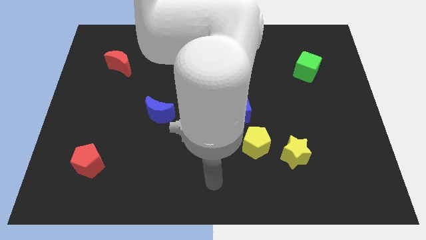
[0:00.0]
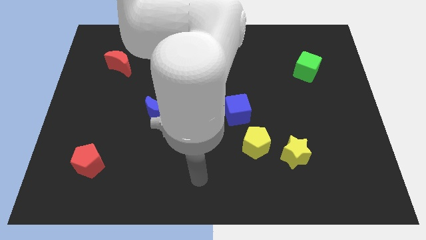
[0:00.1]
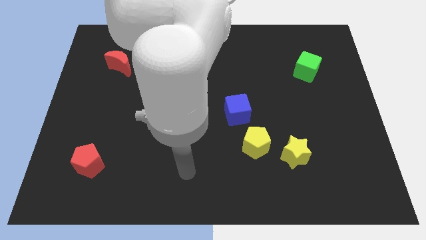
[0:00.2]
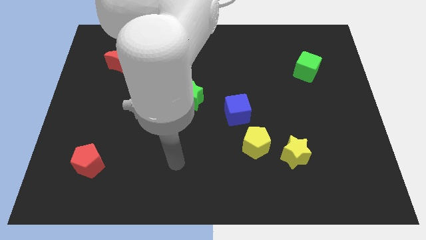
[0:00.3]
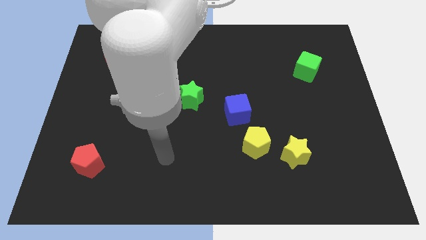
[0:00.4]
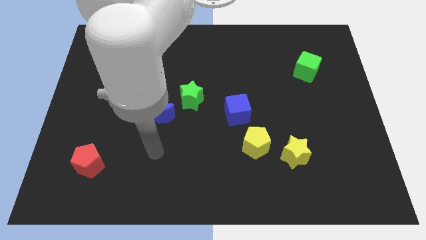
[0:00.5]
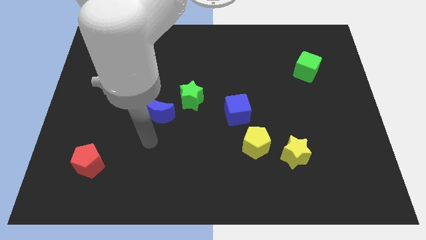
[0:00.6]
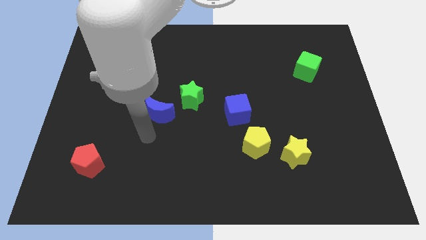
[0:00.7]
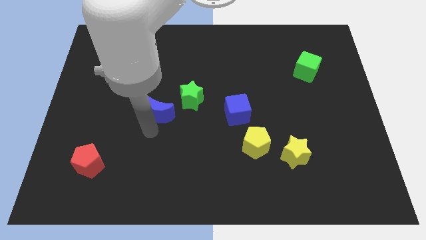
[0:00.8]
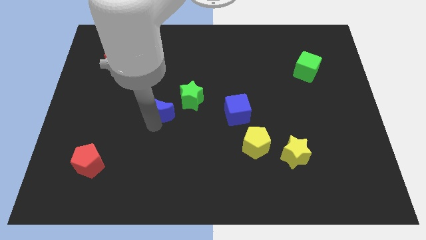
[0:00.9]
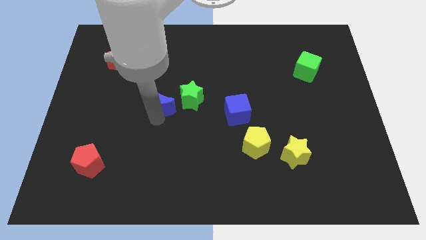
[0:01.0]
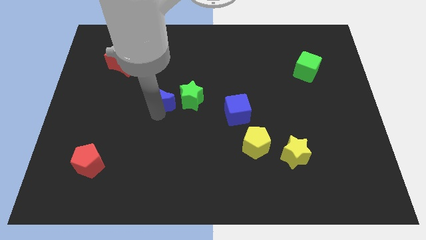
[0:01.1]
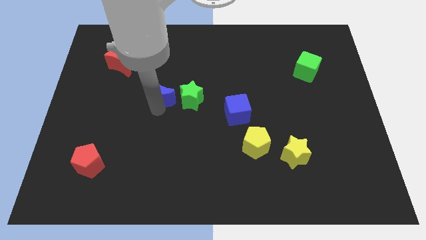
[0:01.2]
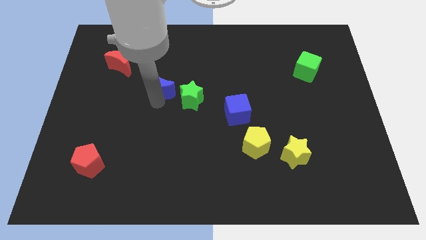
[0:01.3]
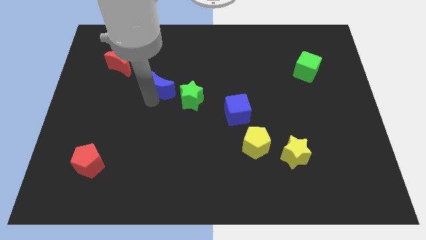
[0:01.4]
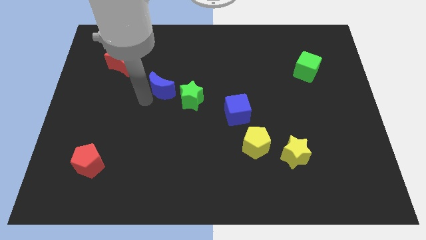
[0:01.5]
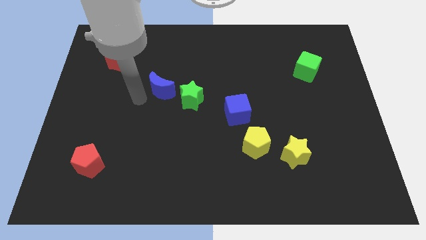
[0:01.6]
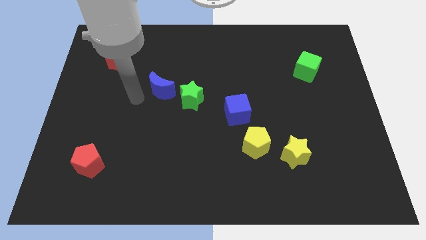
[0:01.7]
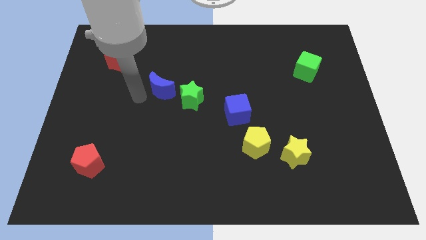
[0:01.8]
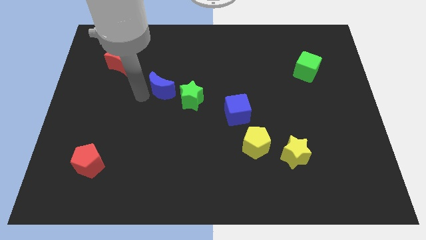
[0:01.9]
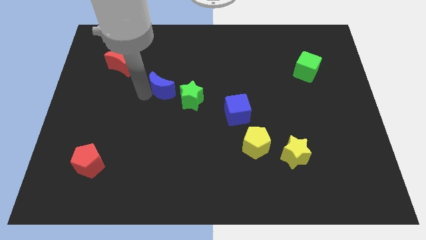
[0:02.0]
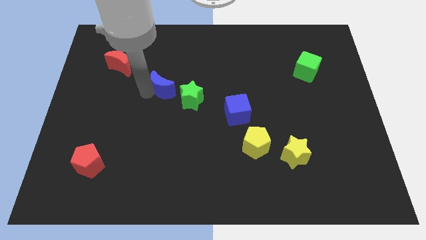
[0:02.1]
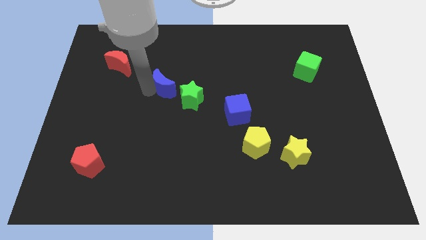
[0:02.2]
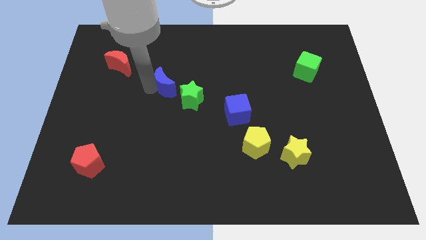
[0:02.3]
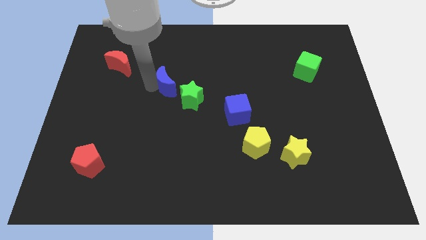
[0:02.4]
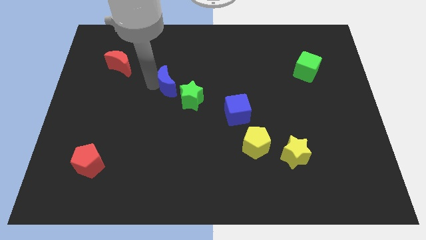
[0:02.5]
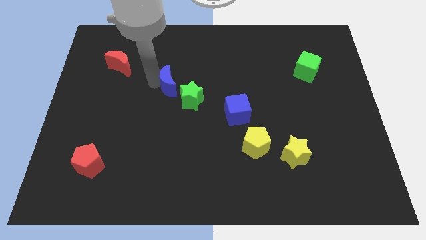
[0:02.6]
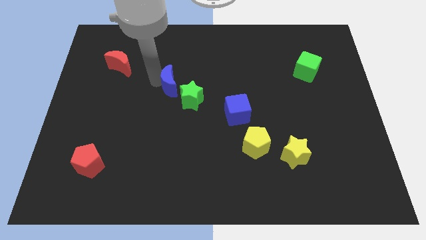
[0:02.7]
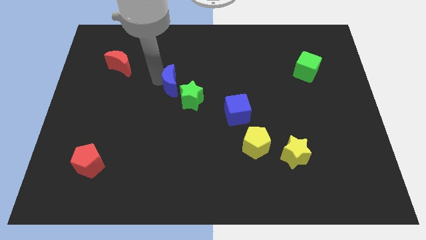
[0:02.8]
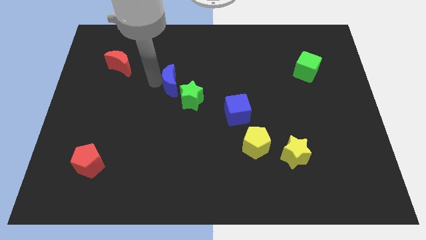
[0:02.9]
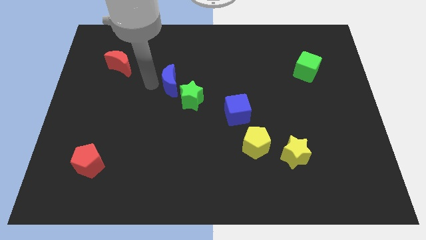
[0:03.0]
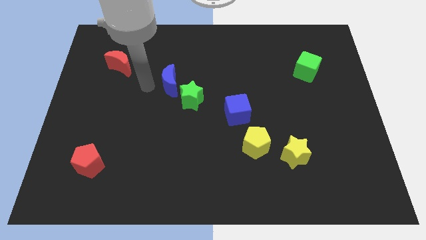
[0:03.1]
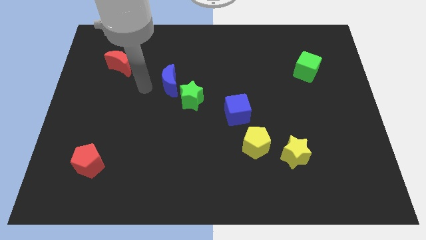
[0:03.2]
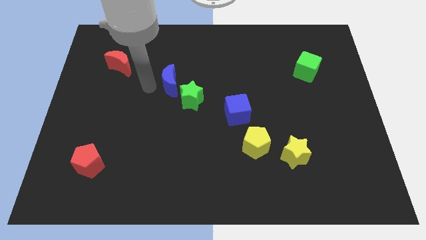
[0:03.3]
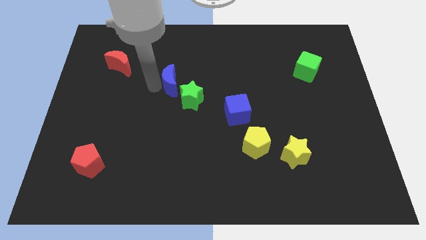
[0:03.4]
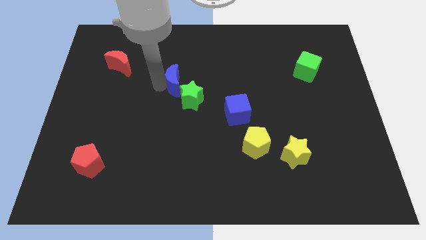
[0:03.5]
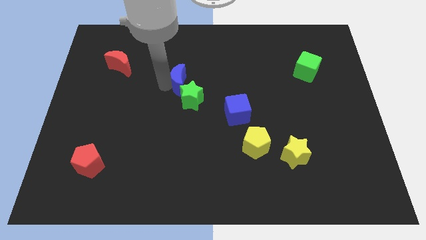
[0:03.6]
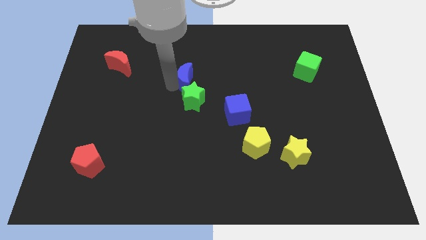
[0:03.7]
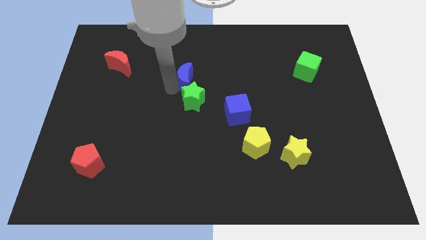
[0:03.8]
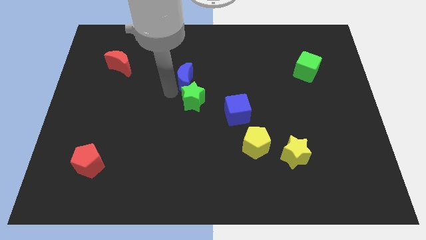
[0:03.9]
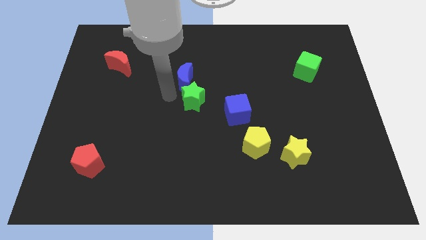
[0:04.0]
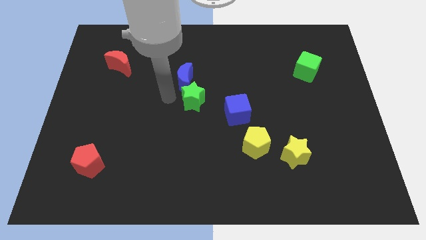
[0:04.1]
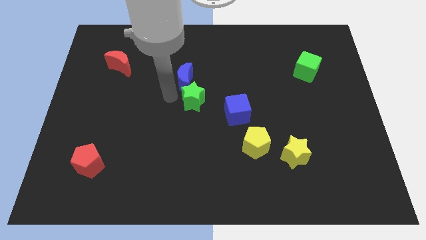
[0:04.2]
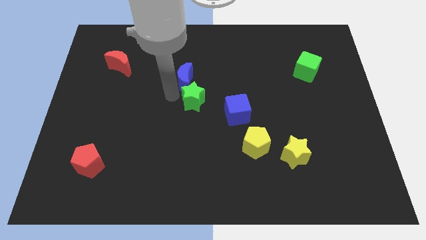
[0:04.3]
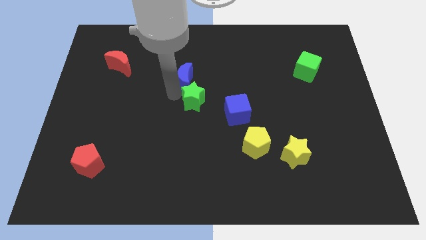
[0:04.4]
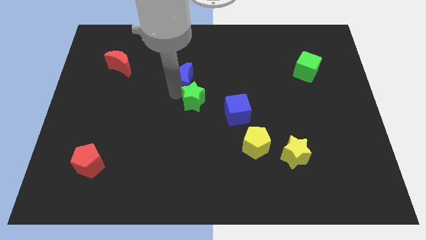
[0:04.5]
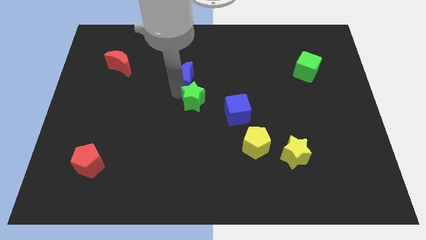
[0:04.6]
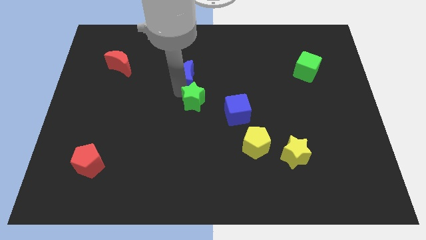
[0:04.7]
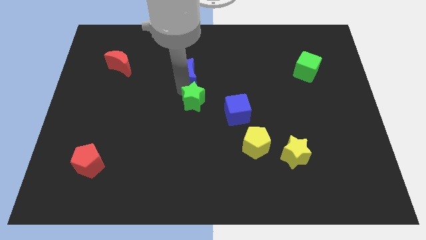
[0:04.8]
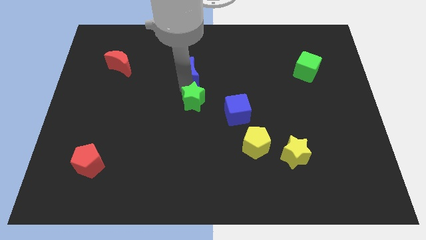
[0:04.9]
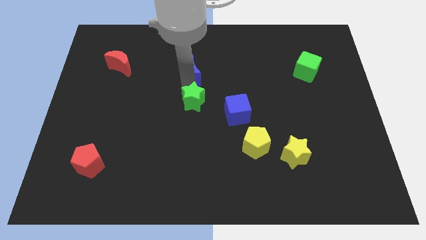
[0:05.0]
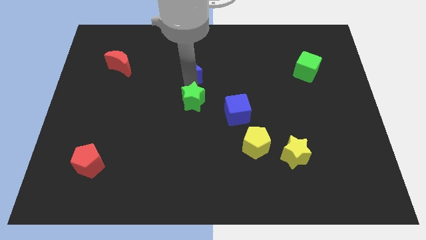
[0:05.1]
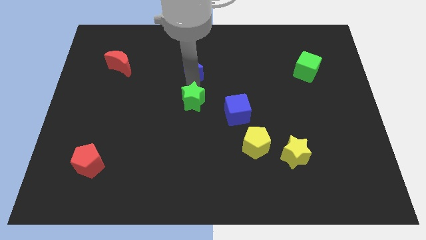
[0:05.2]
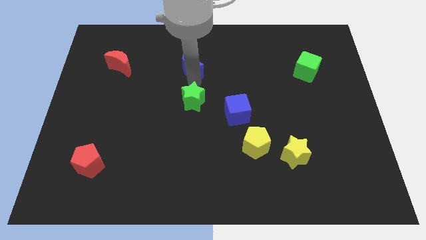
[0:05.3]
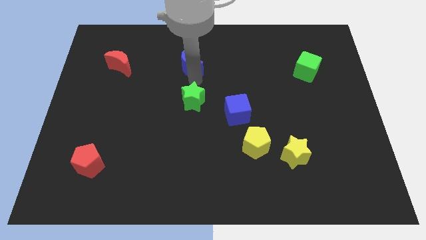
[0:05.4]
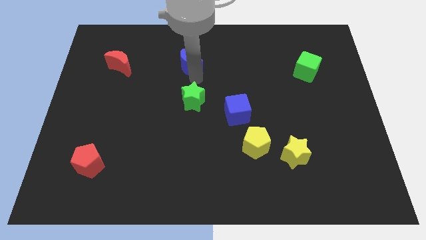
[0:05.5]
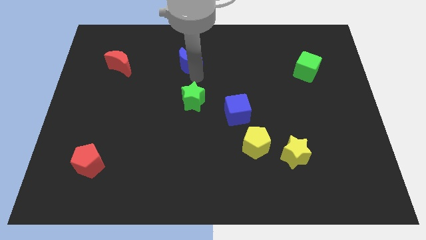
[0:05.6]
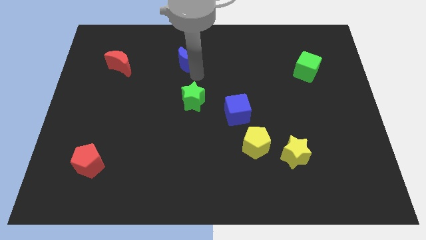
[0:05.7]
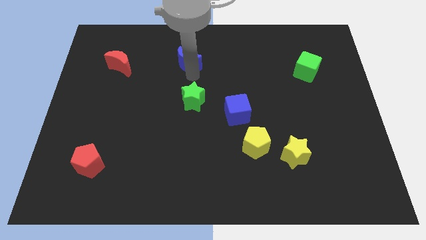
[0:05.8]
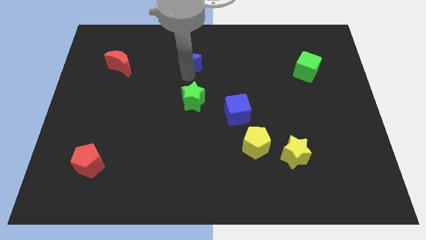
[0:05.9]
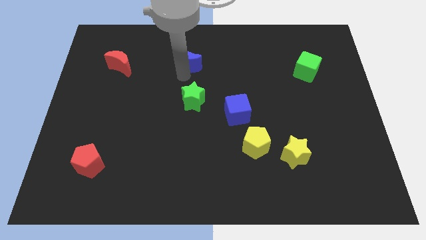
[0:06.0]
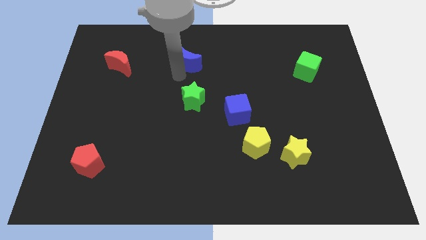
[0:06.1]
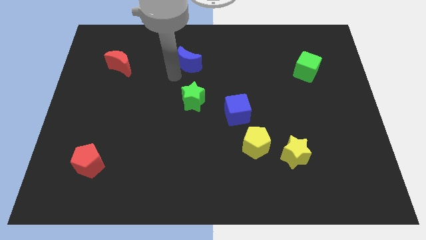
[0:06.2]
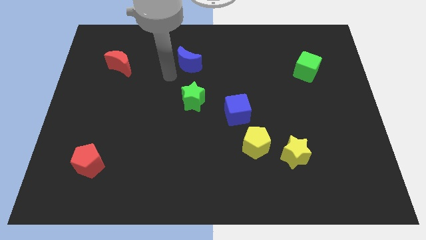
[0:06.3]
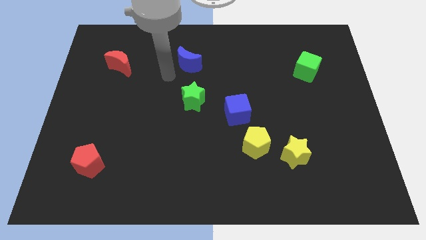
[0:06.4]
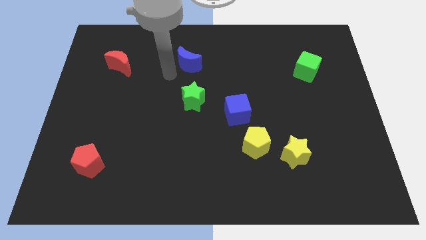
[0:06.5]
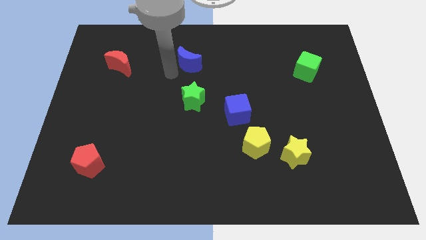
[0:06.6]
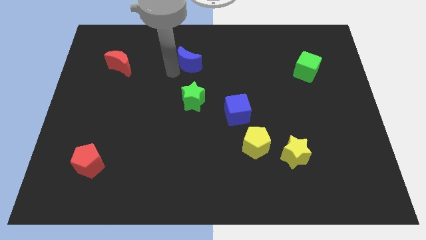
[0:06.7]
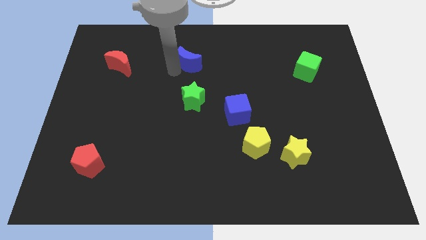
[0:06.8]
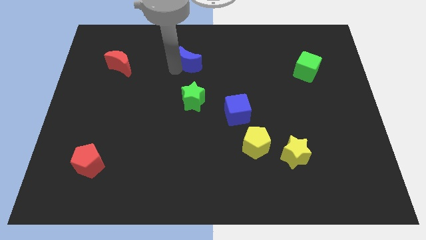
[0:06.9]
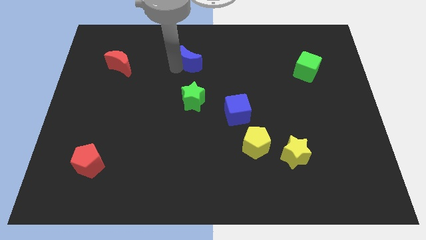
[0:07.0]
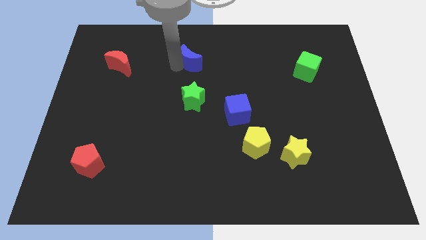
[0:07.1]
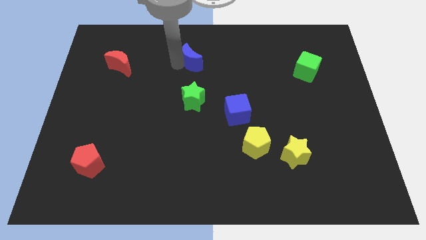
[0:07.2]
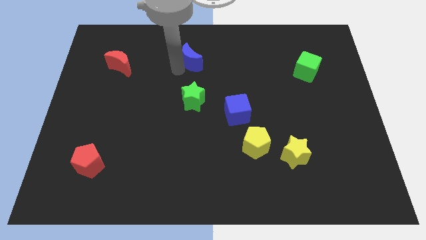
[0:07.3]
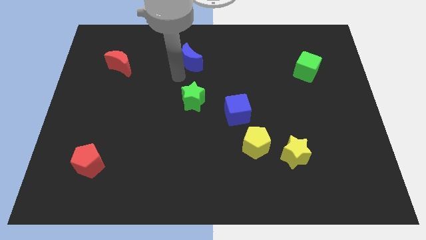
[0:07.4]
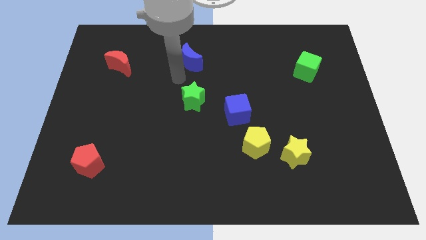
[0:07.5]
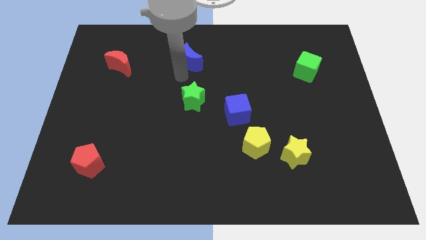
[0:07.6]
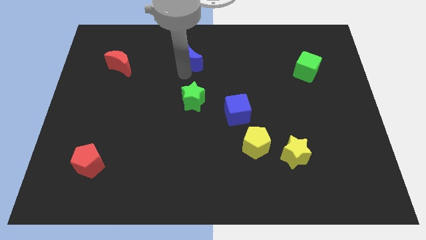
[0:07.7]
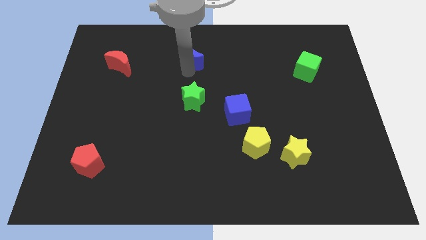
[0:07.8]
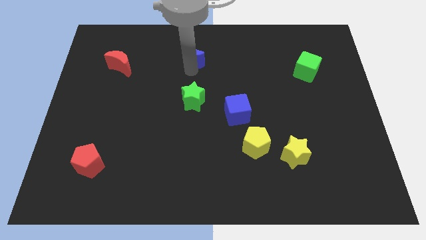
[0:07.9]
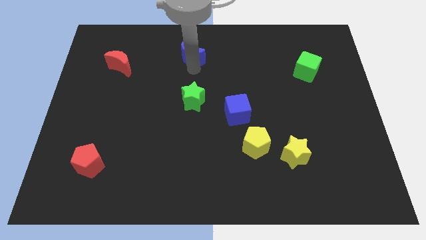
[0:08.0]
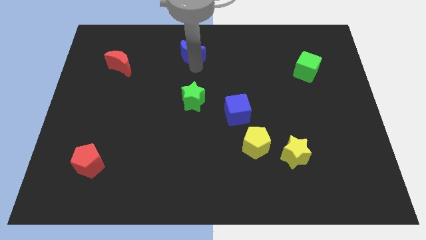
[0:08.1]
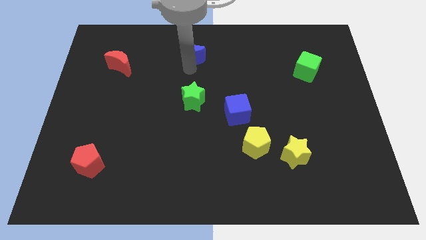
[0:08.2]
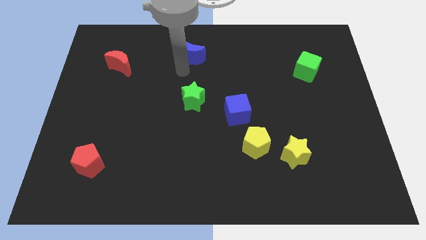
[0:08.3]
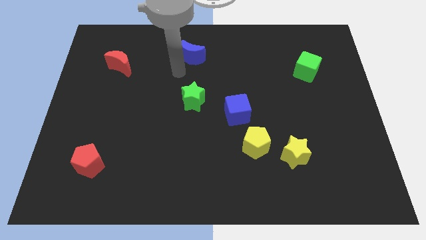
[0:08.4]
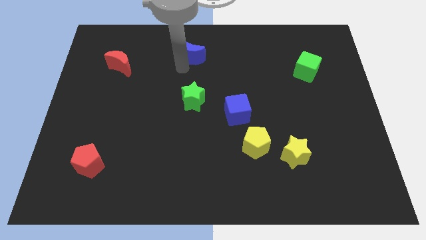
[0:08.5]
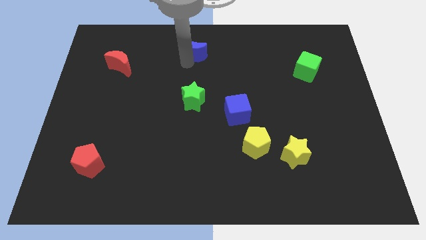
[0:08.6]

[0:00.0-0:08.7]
put the blue moon to the top
